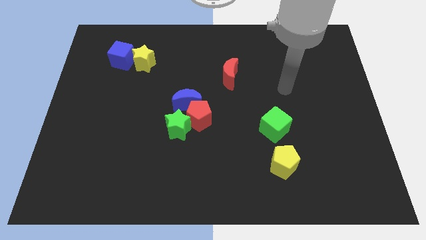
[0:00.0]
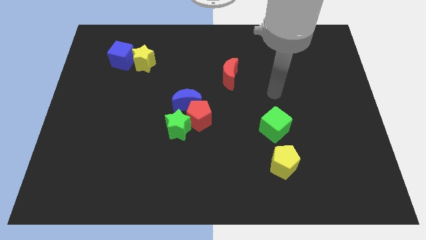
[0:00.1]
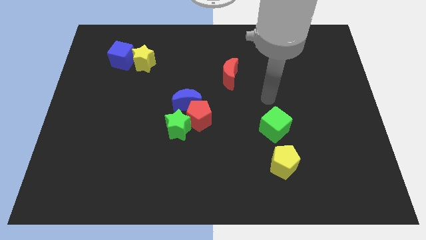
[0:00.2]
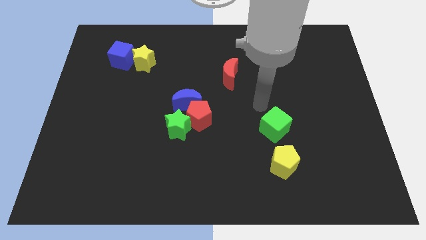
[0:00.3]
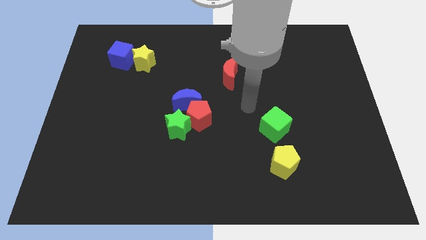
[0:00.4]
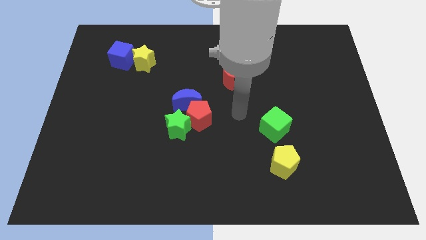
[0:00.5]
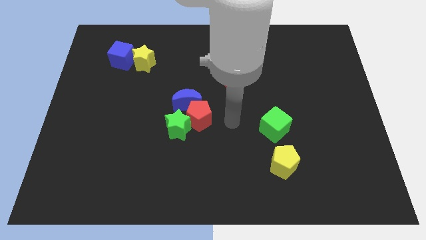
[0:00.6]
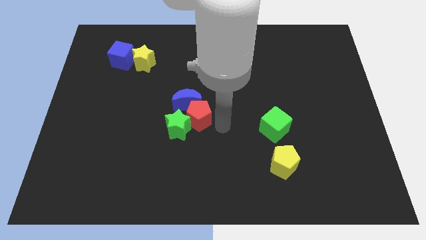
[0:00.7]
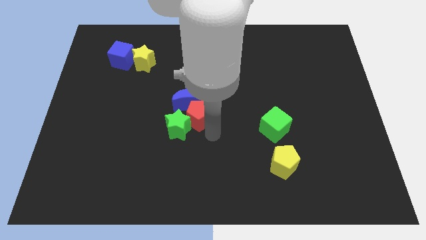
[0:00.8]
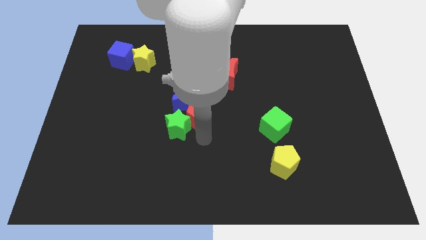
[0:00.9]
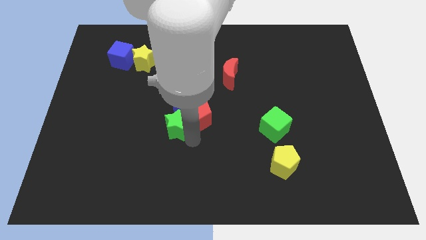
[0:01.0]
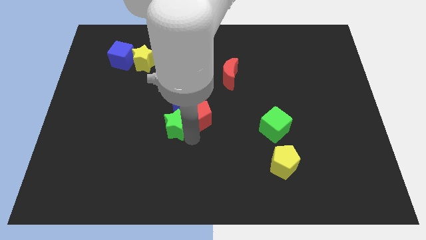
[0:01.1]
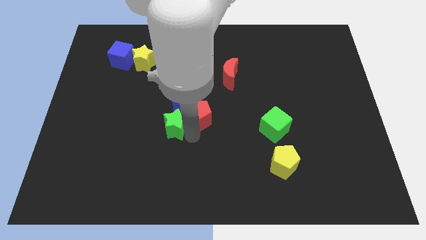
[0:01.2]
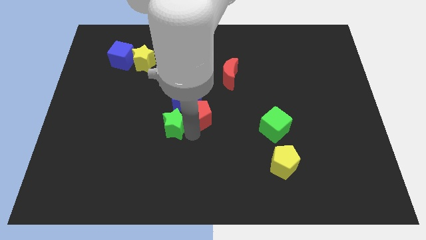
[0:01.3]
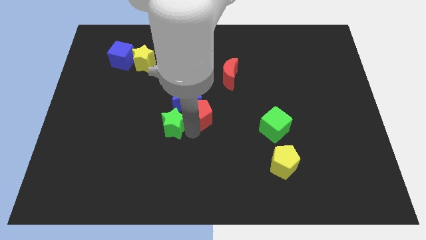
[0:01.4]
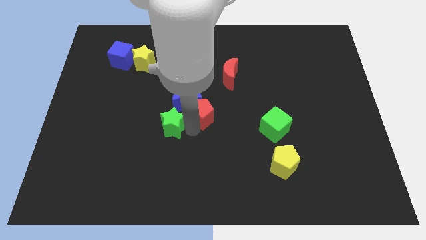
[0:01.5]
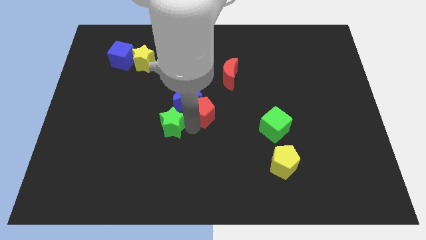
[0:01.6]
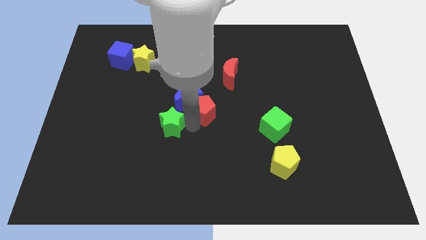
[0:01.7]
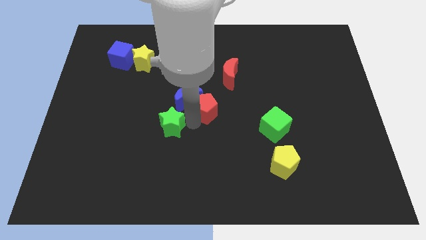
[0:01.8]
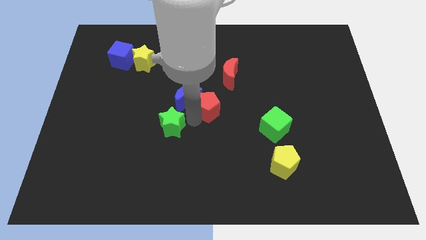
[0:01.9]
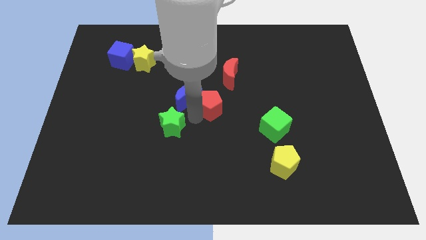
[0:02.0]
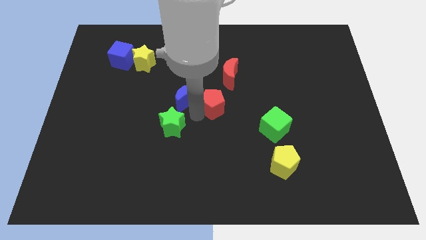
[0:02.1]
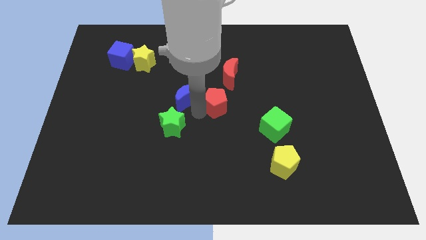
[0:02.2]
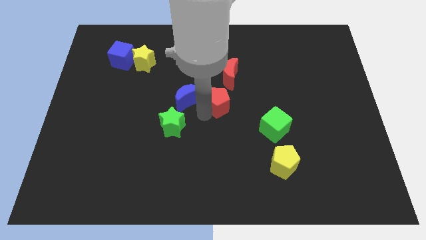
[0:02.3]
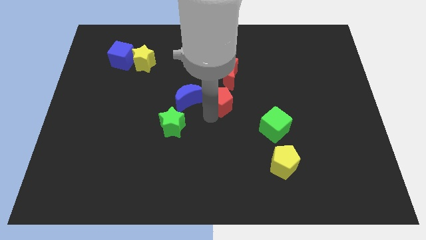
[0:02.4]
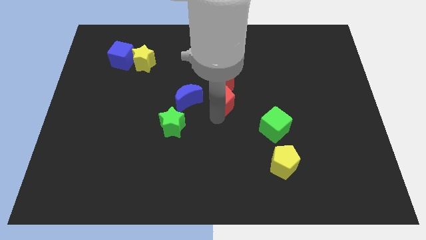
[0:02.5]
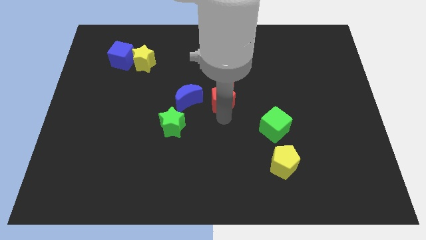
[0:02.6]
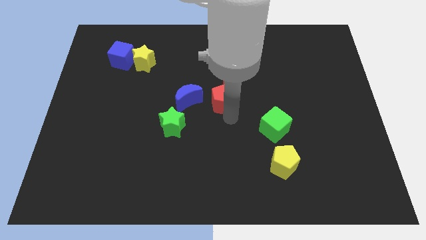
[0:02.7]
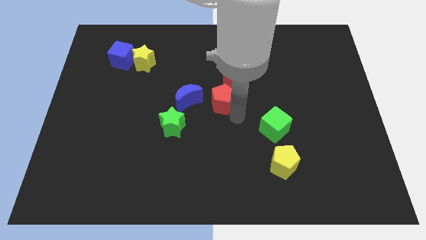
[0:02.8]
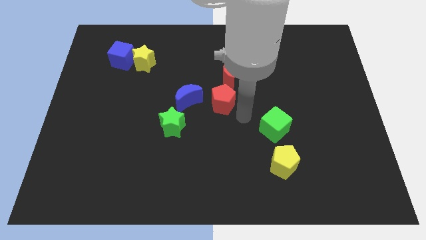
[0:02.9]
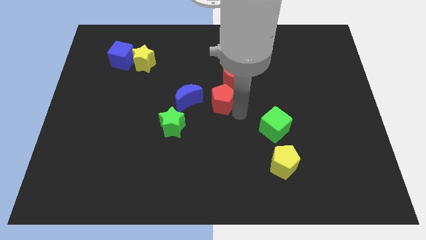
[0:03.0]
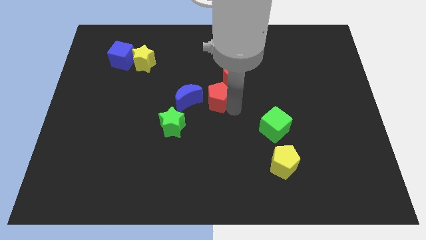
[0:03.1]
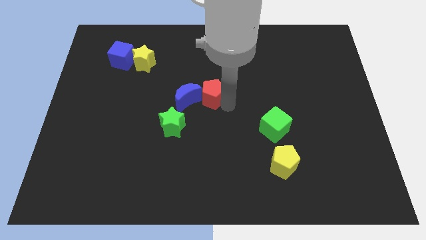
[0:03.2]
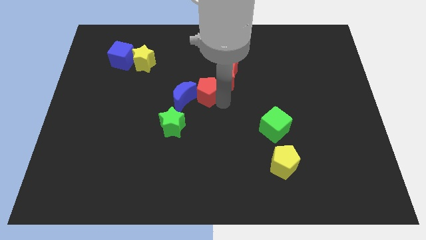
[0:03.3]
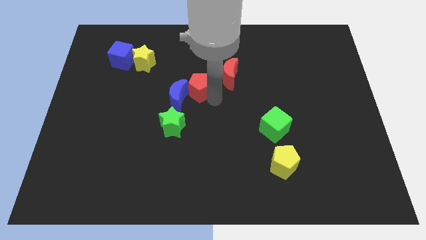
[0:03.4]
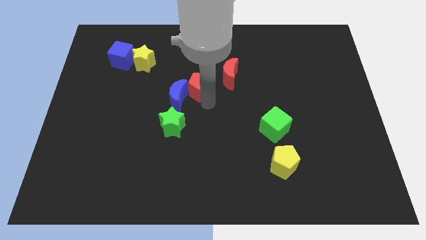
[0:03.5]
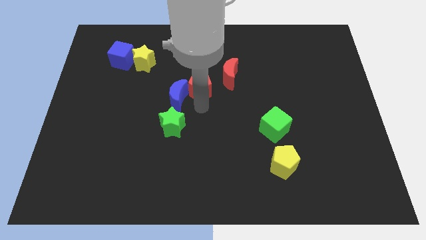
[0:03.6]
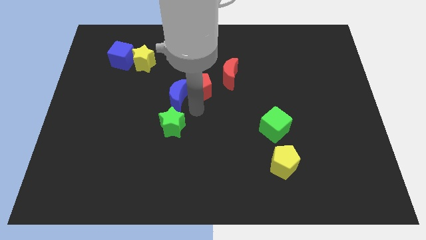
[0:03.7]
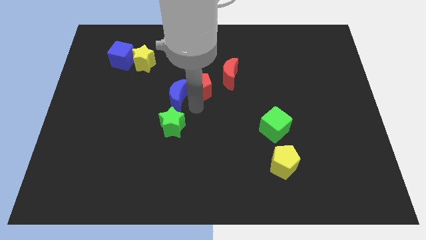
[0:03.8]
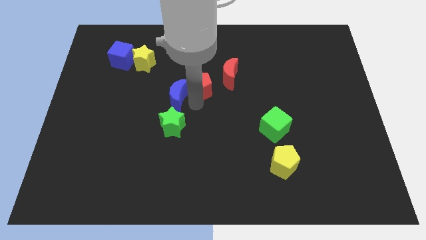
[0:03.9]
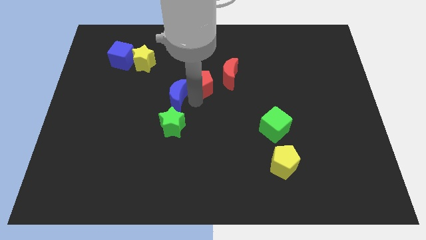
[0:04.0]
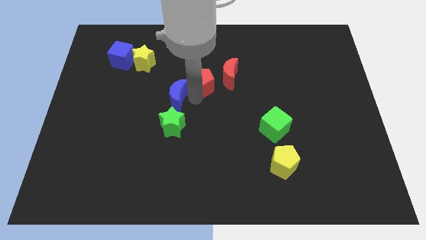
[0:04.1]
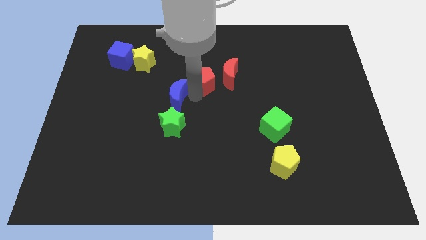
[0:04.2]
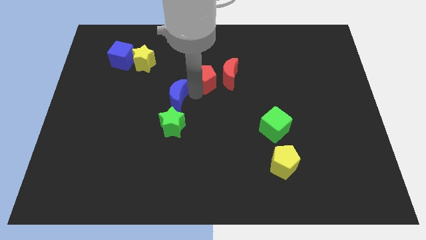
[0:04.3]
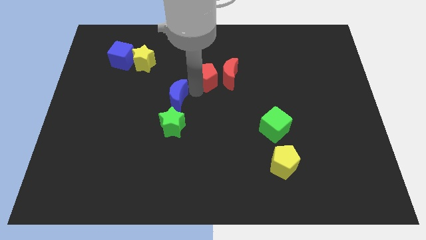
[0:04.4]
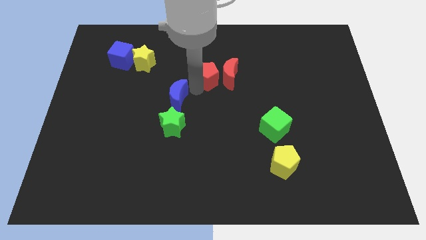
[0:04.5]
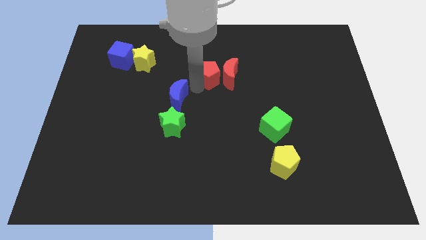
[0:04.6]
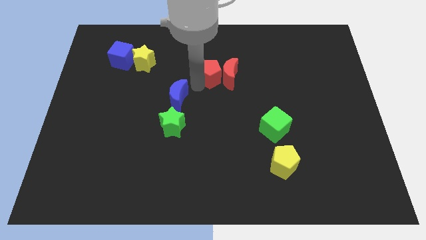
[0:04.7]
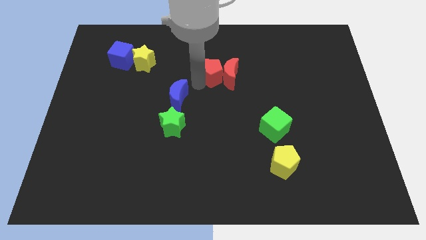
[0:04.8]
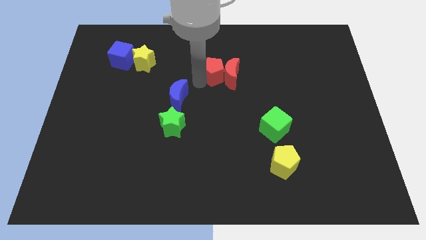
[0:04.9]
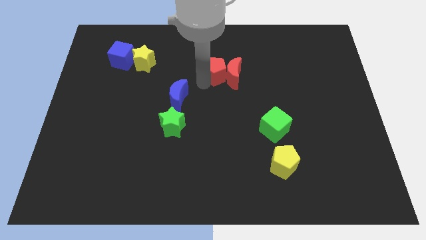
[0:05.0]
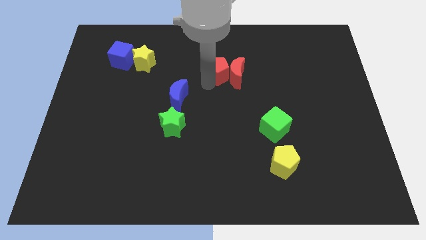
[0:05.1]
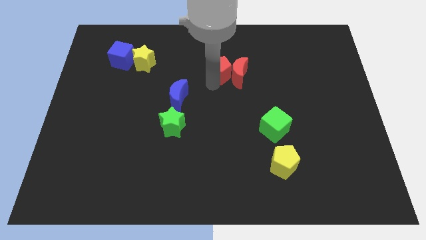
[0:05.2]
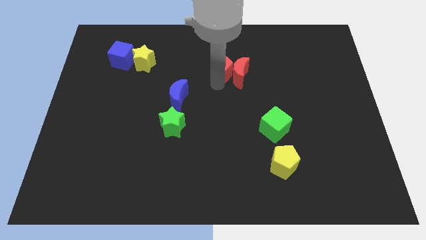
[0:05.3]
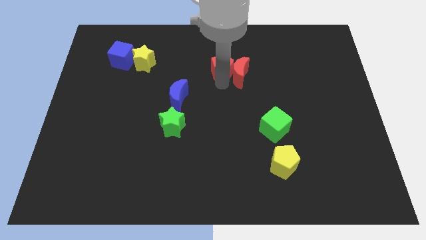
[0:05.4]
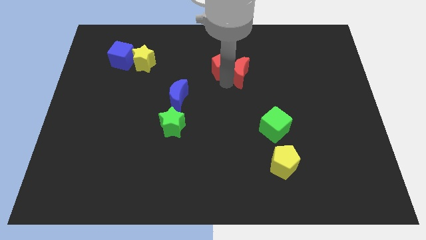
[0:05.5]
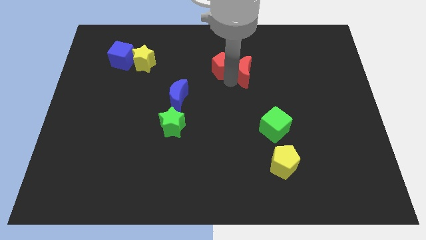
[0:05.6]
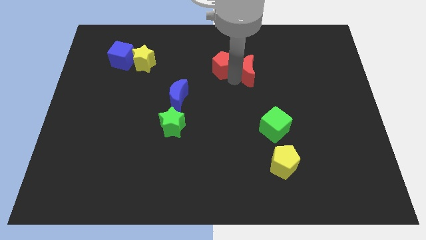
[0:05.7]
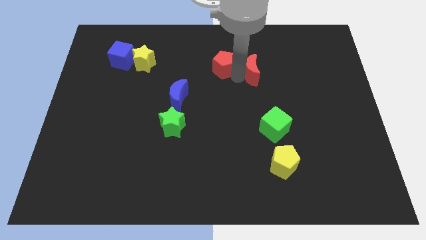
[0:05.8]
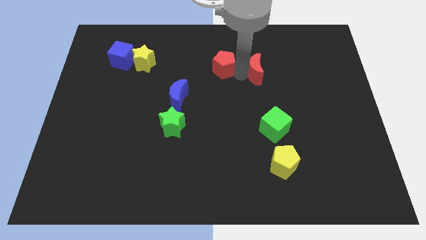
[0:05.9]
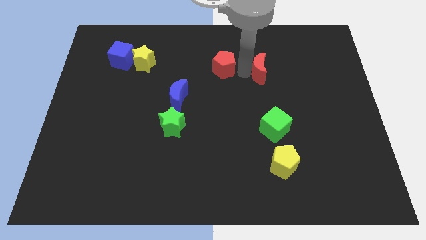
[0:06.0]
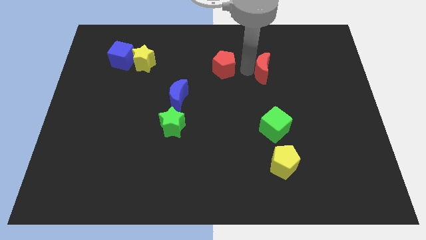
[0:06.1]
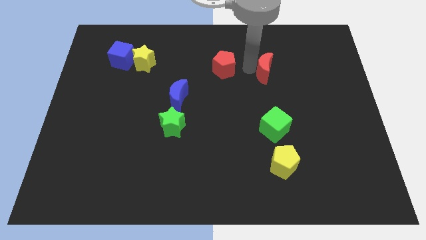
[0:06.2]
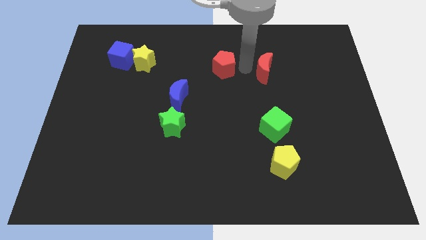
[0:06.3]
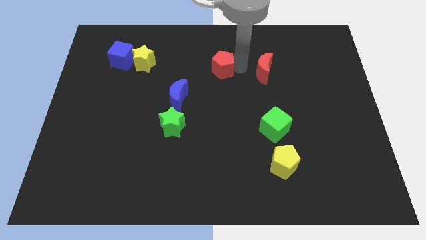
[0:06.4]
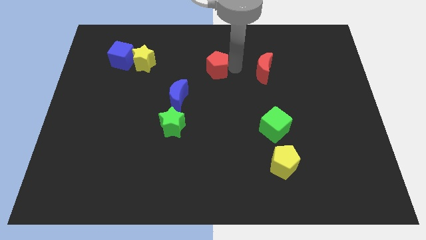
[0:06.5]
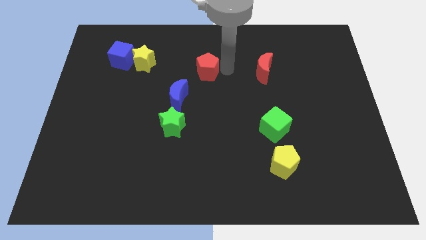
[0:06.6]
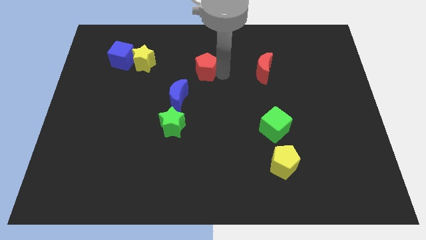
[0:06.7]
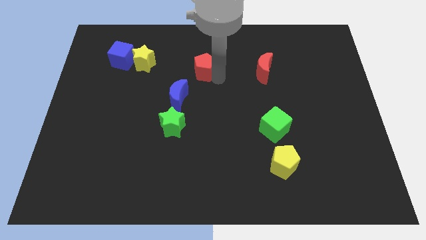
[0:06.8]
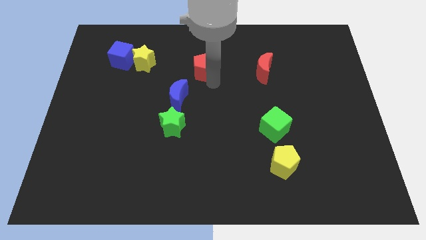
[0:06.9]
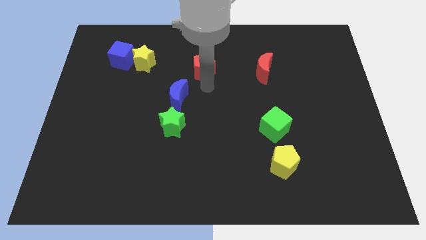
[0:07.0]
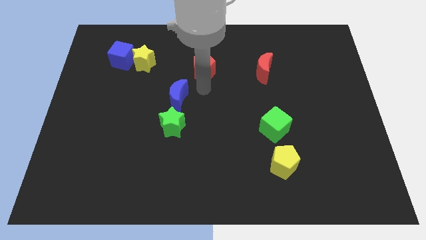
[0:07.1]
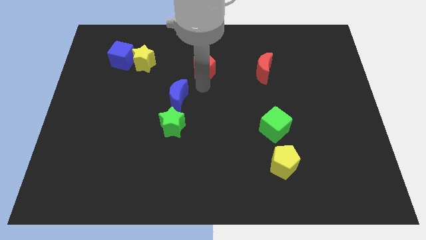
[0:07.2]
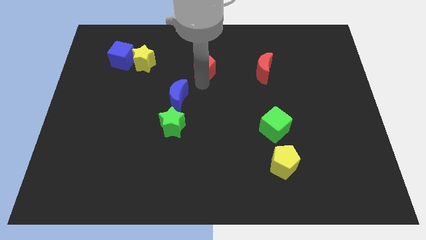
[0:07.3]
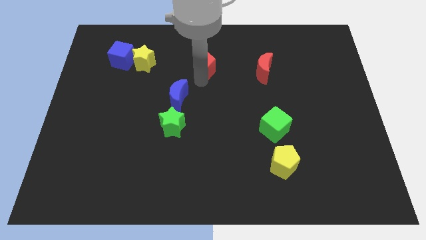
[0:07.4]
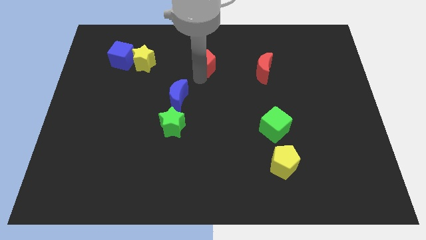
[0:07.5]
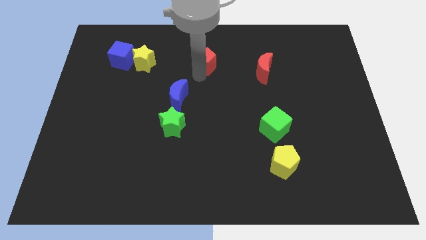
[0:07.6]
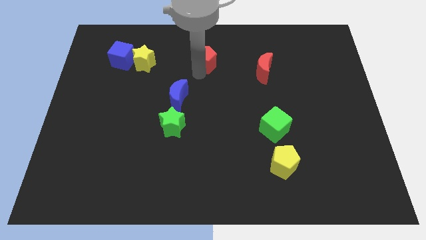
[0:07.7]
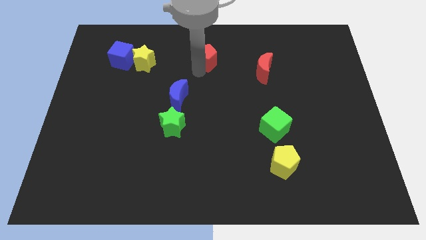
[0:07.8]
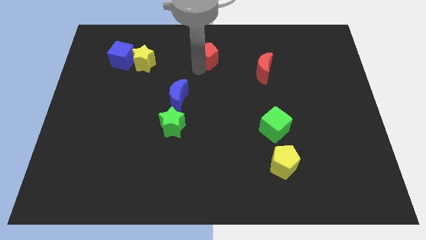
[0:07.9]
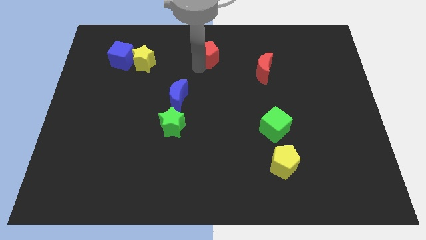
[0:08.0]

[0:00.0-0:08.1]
push the red pentagon to the towards your base
